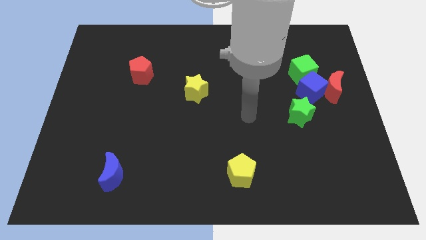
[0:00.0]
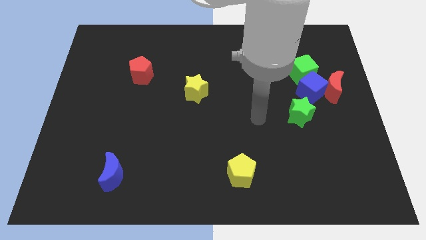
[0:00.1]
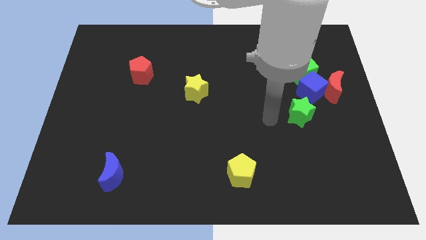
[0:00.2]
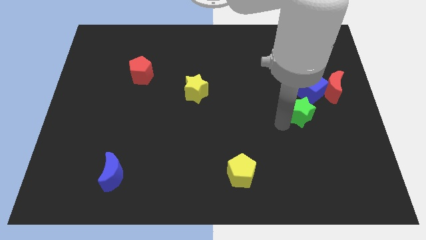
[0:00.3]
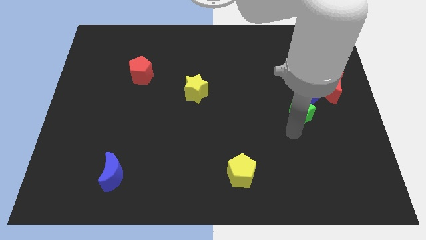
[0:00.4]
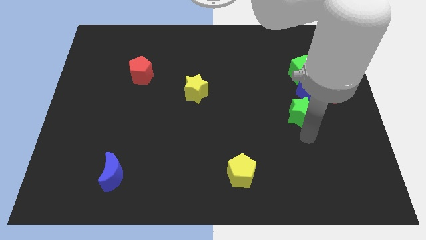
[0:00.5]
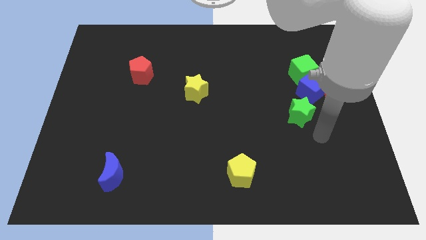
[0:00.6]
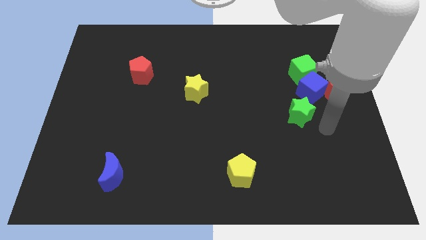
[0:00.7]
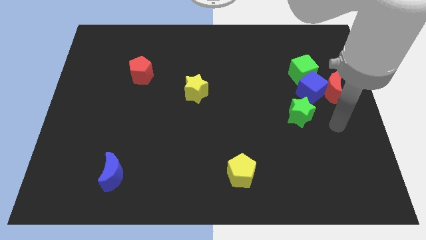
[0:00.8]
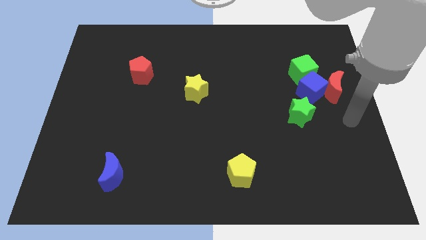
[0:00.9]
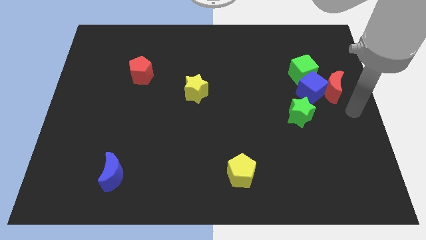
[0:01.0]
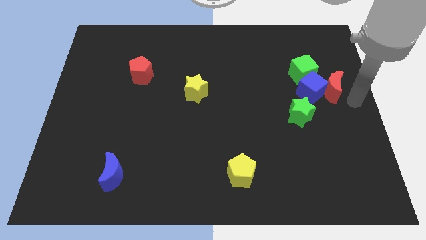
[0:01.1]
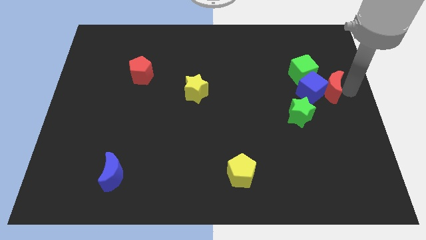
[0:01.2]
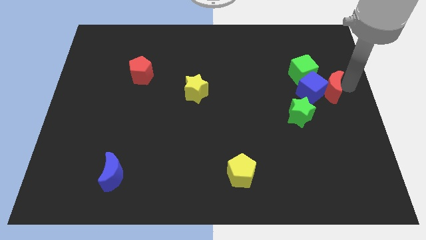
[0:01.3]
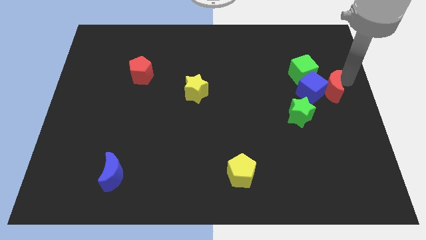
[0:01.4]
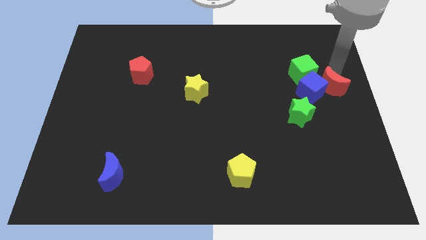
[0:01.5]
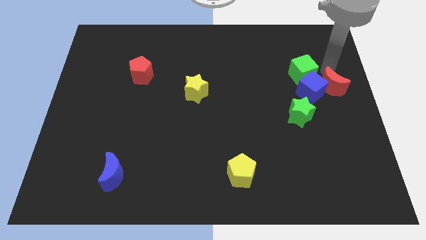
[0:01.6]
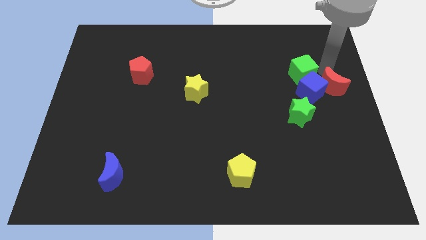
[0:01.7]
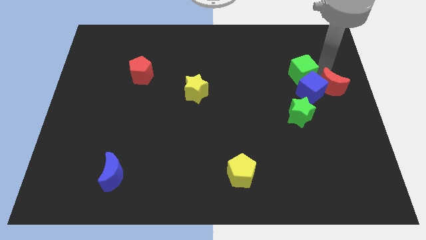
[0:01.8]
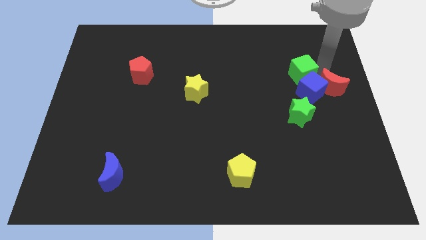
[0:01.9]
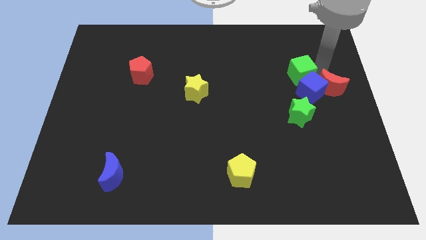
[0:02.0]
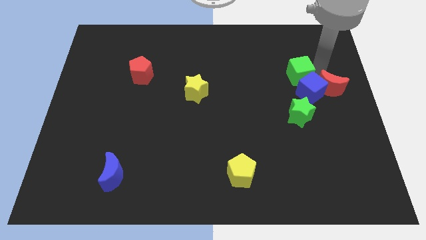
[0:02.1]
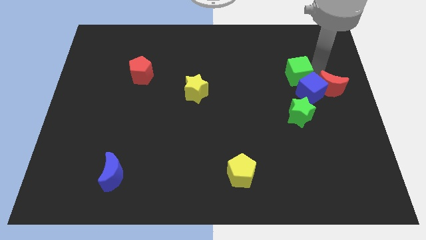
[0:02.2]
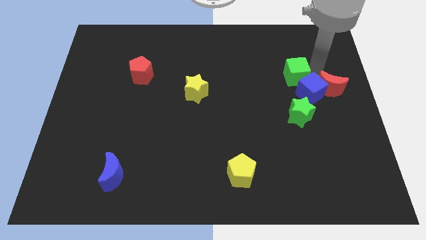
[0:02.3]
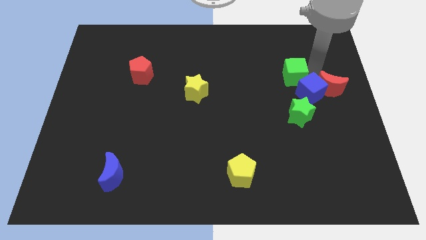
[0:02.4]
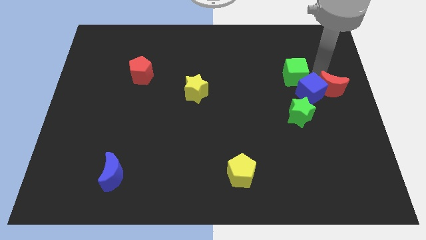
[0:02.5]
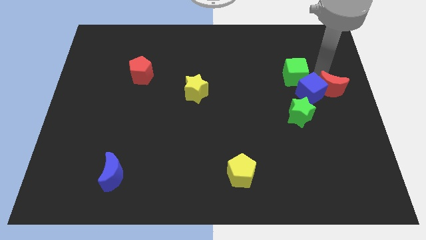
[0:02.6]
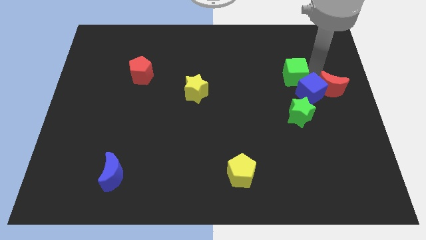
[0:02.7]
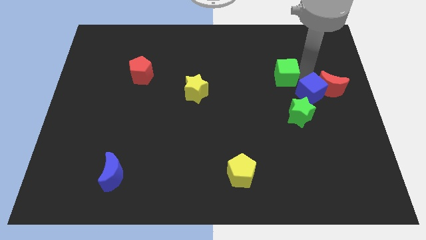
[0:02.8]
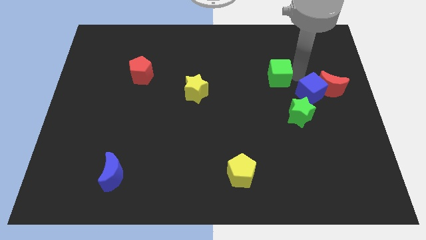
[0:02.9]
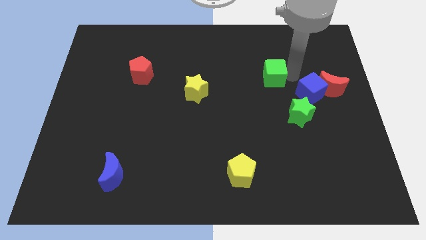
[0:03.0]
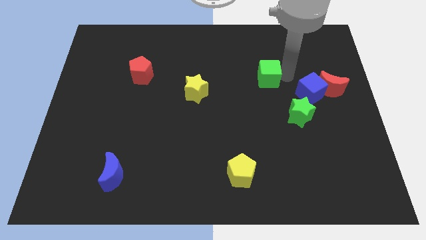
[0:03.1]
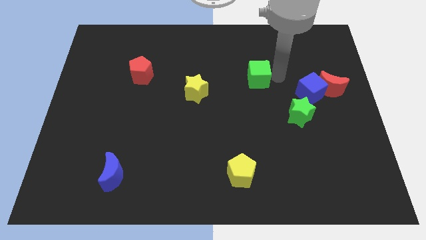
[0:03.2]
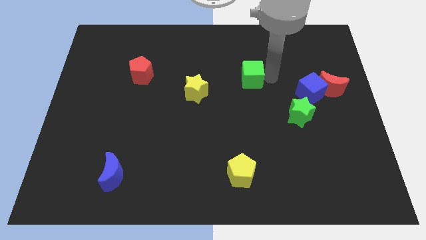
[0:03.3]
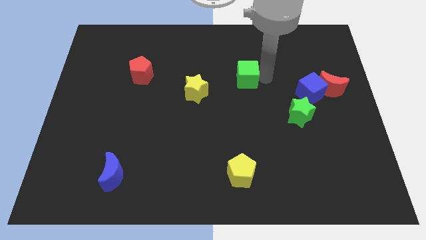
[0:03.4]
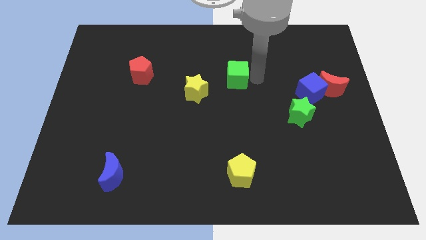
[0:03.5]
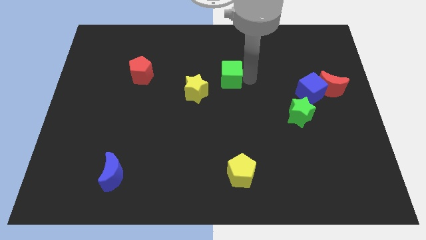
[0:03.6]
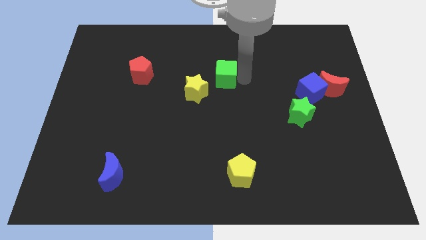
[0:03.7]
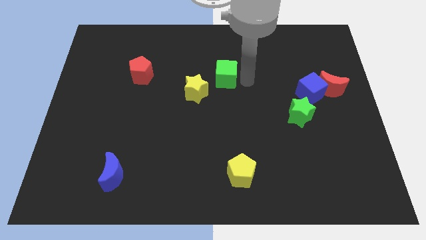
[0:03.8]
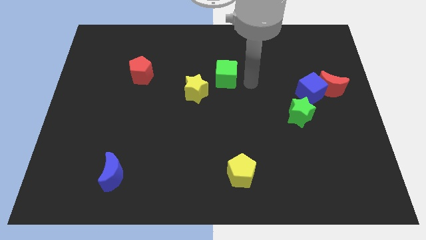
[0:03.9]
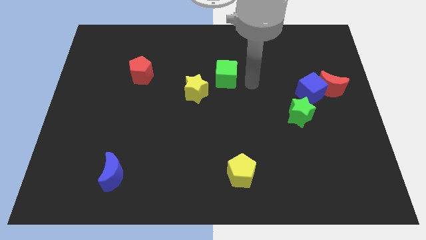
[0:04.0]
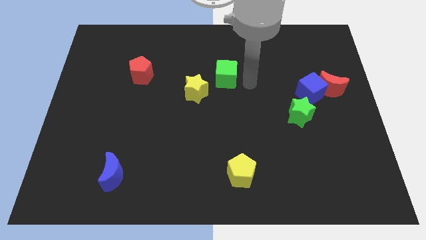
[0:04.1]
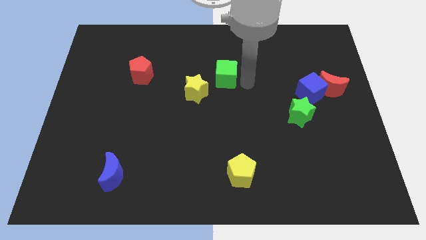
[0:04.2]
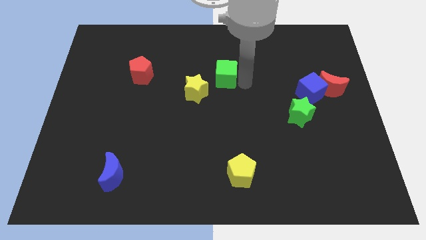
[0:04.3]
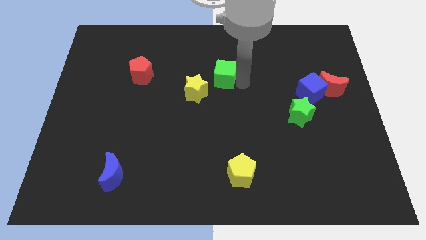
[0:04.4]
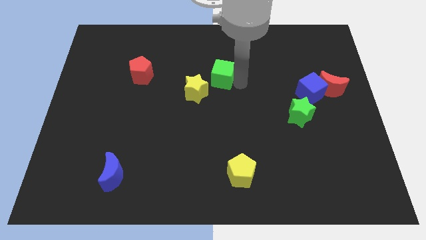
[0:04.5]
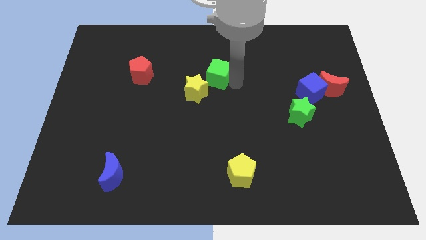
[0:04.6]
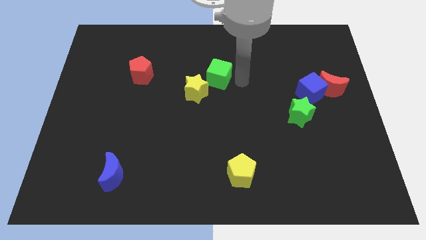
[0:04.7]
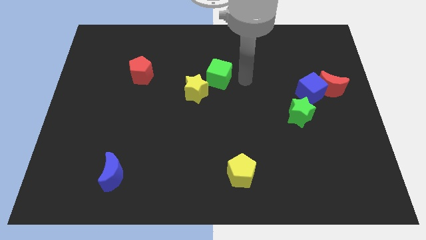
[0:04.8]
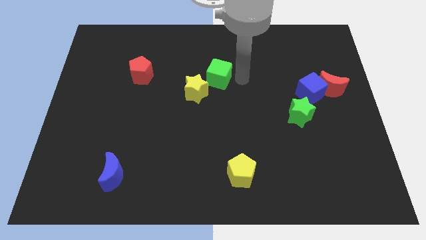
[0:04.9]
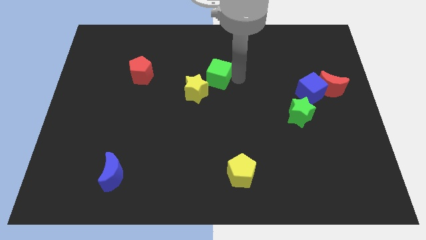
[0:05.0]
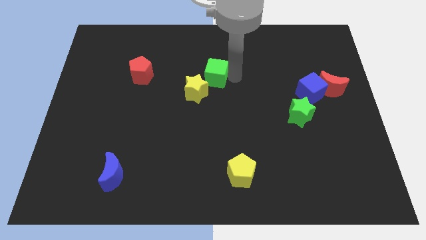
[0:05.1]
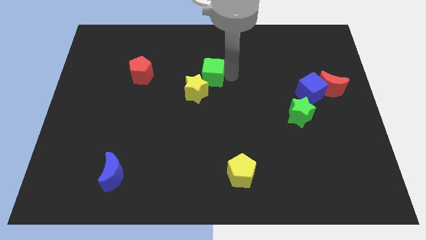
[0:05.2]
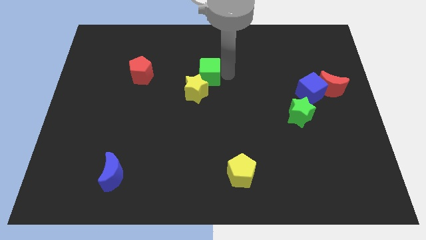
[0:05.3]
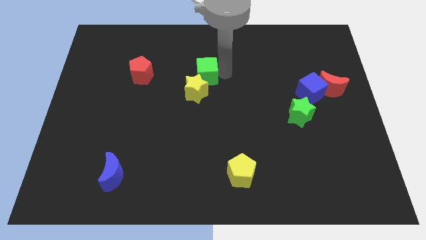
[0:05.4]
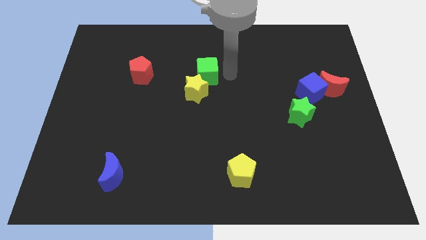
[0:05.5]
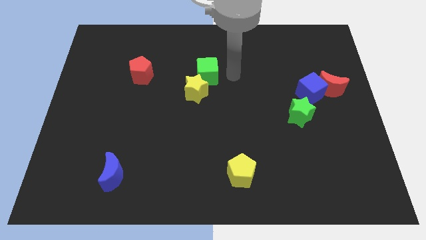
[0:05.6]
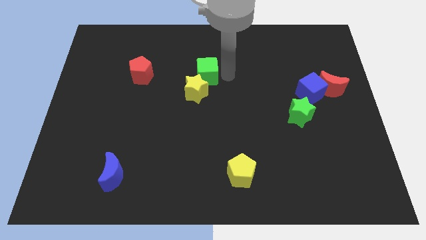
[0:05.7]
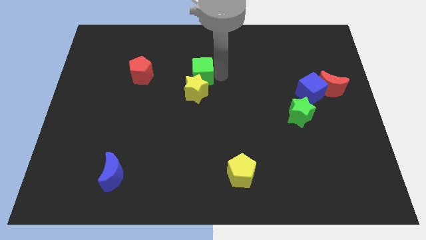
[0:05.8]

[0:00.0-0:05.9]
push the green cube to the right of the red pentagon

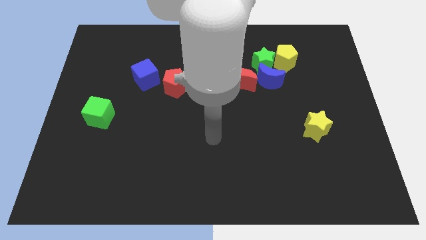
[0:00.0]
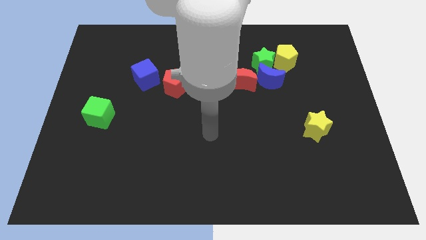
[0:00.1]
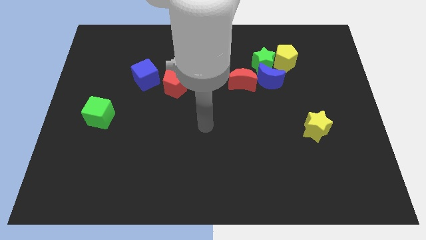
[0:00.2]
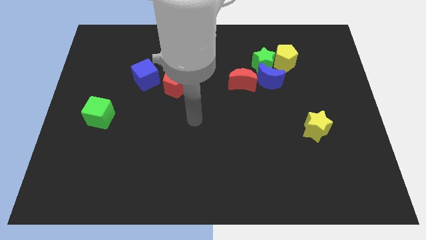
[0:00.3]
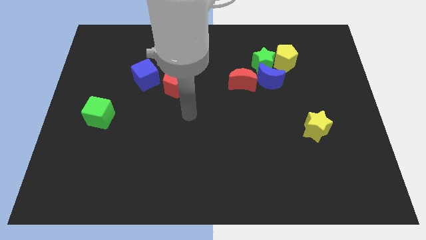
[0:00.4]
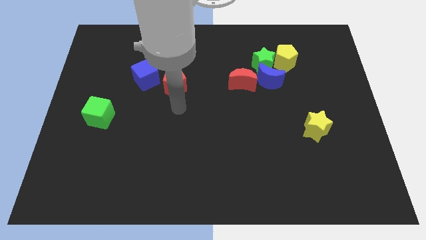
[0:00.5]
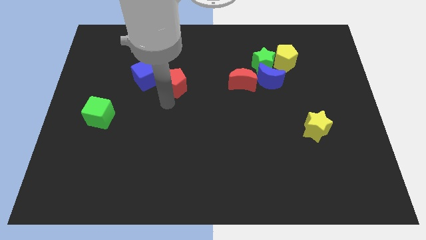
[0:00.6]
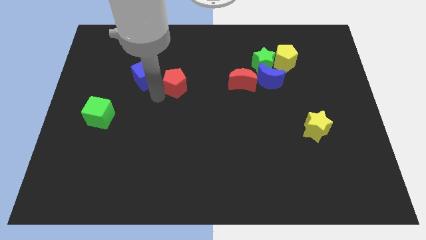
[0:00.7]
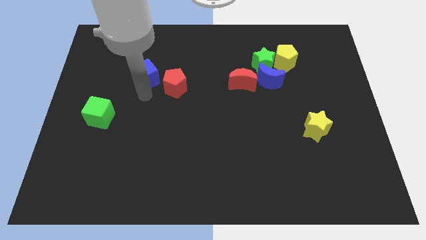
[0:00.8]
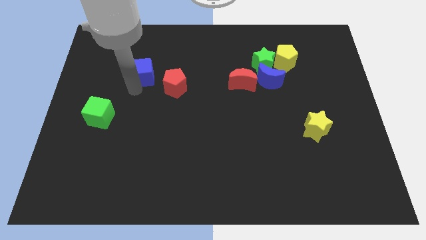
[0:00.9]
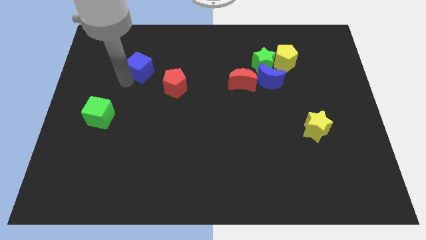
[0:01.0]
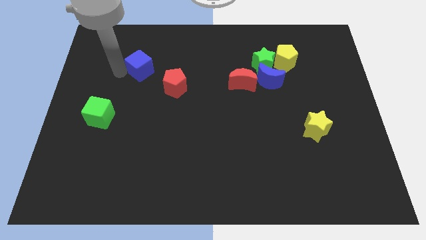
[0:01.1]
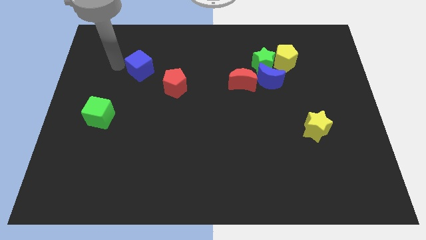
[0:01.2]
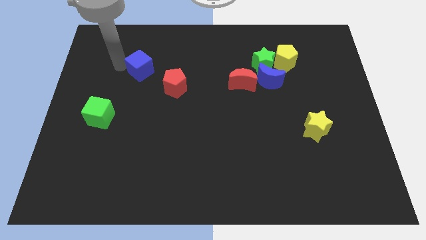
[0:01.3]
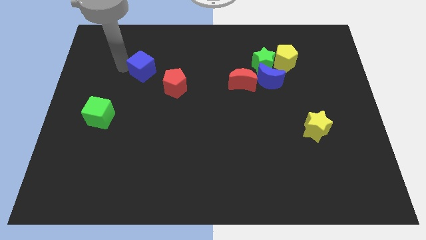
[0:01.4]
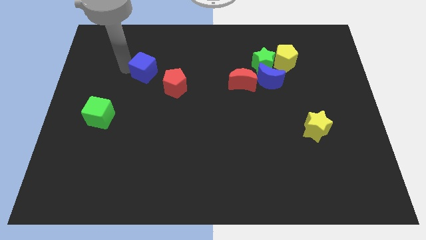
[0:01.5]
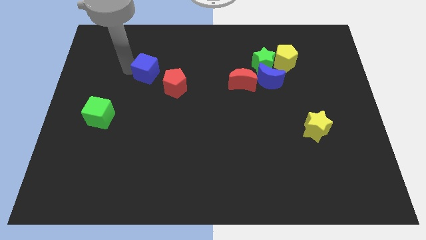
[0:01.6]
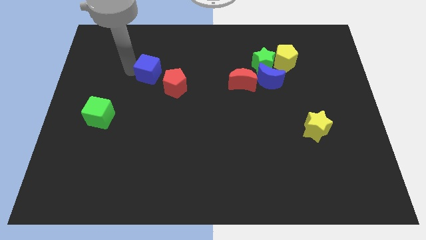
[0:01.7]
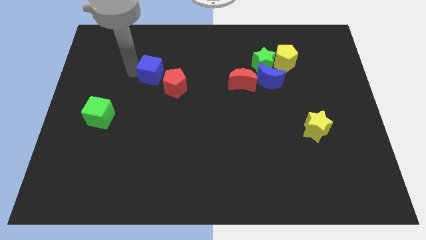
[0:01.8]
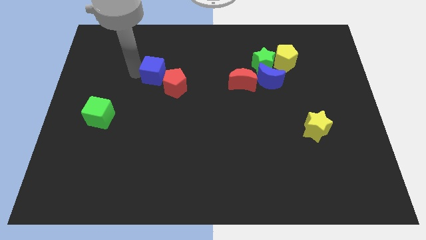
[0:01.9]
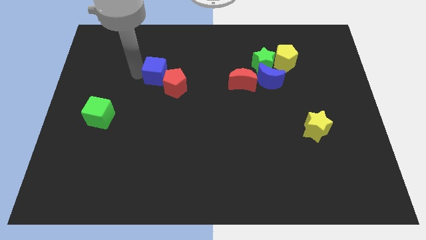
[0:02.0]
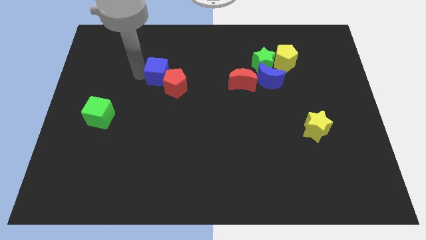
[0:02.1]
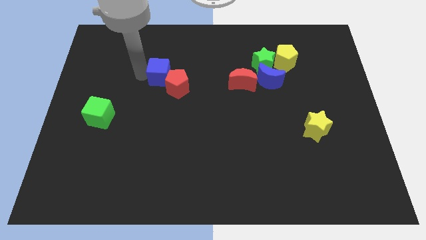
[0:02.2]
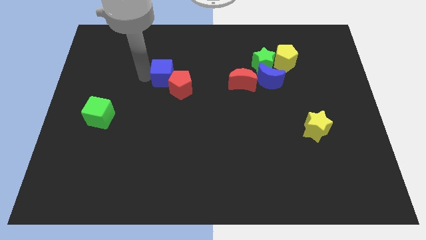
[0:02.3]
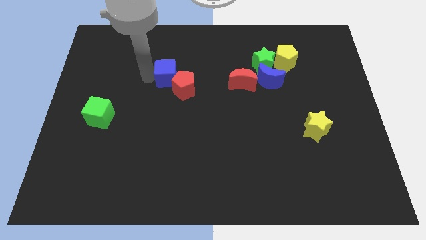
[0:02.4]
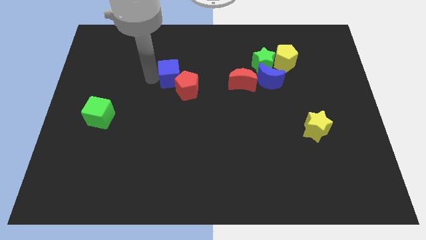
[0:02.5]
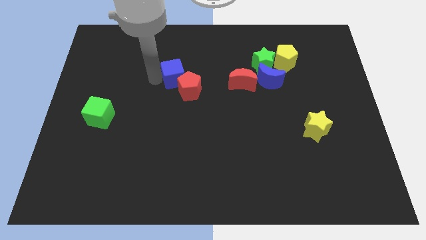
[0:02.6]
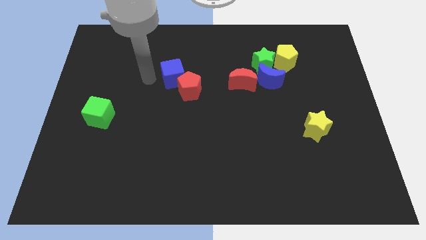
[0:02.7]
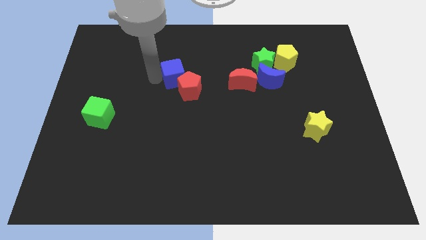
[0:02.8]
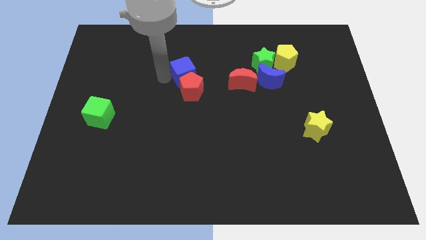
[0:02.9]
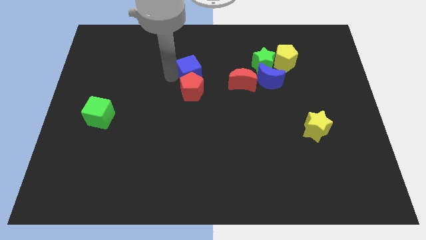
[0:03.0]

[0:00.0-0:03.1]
put the blue cube to the top right side of the red pentagon
